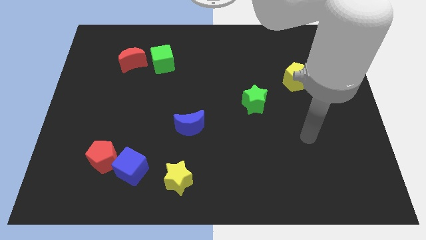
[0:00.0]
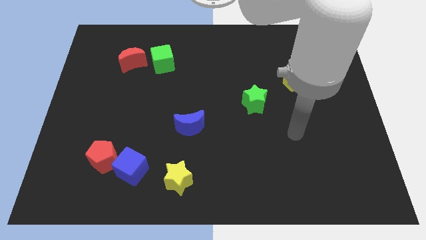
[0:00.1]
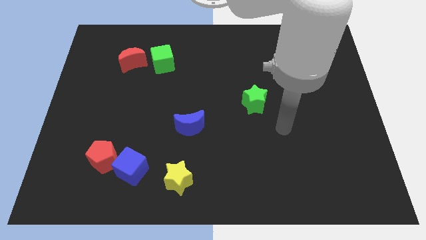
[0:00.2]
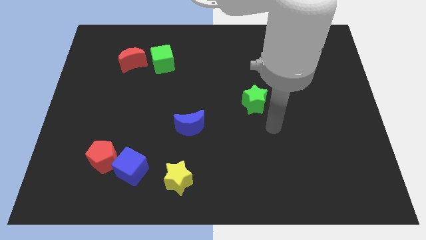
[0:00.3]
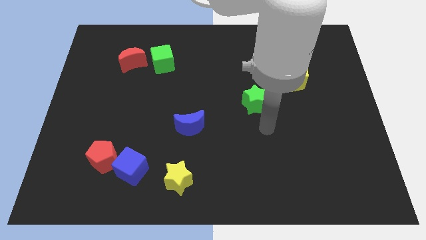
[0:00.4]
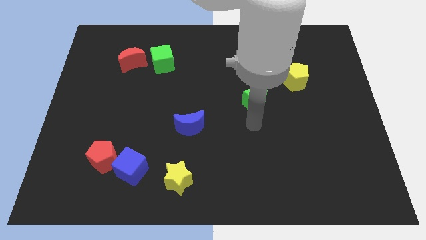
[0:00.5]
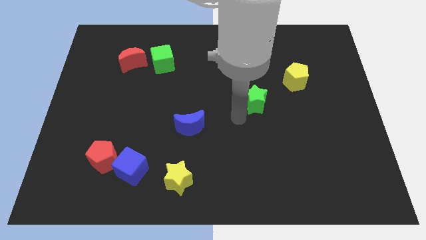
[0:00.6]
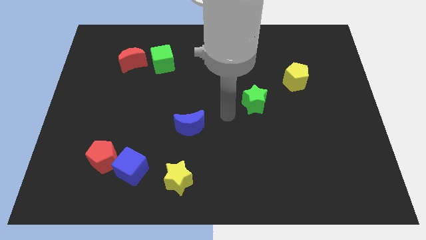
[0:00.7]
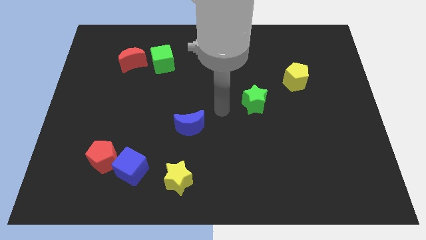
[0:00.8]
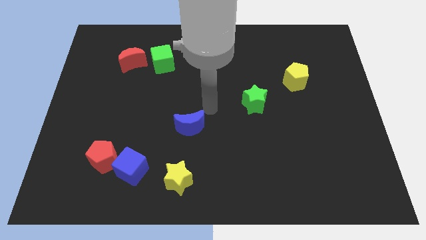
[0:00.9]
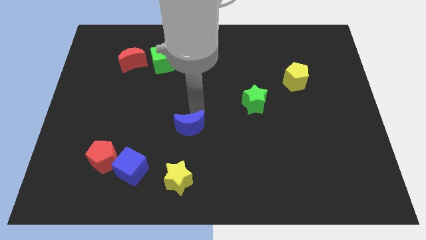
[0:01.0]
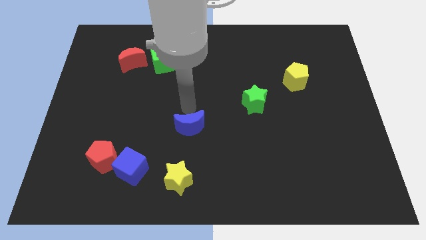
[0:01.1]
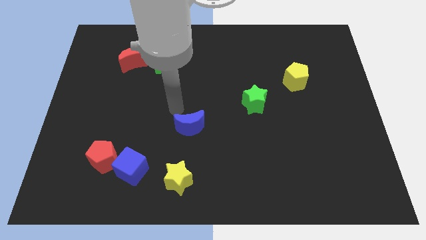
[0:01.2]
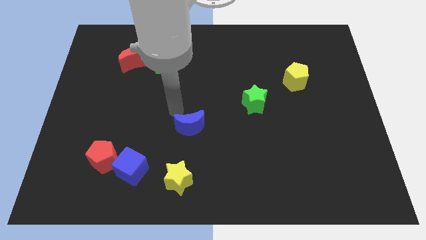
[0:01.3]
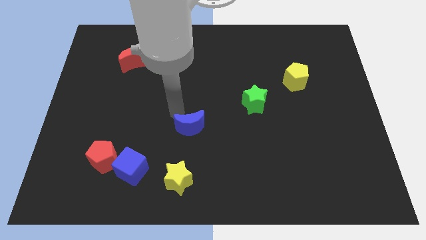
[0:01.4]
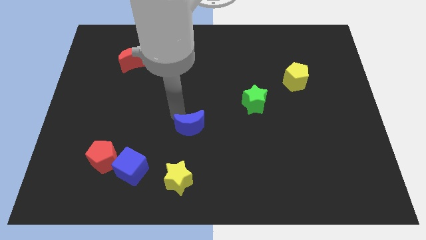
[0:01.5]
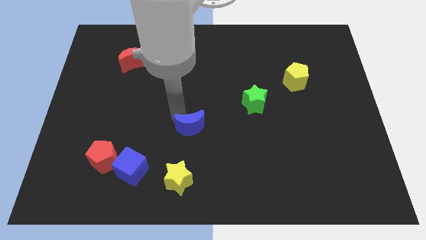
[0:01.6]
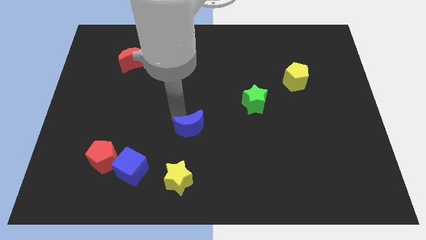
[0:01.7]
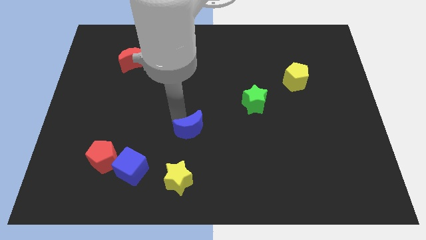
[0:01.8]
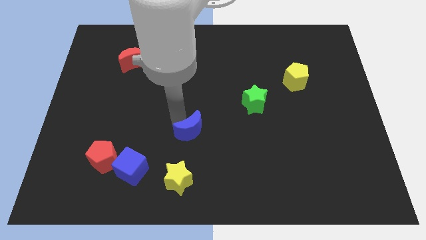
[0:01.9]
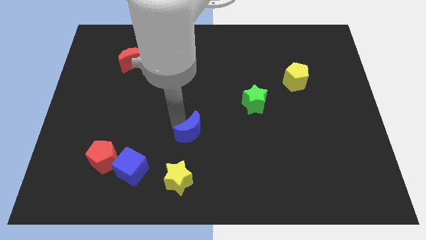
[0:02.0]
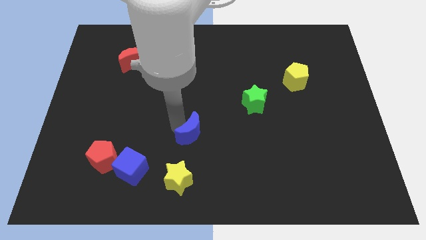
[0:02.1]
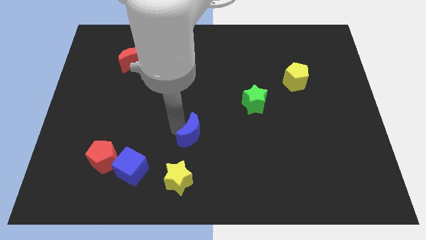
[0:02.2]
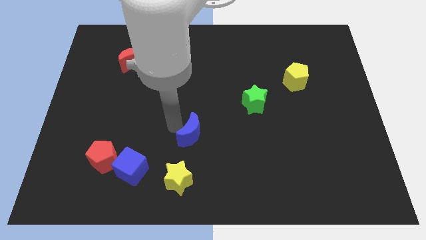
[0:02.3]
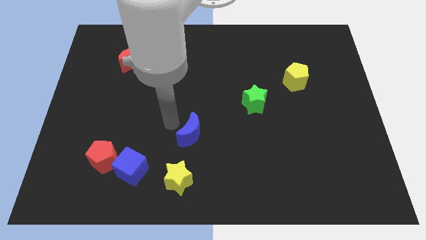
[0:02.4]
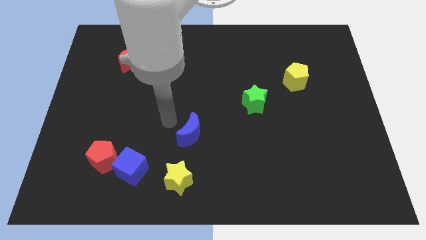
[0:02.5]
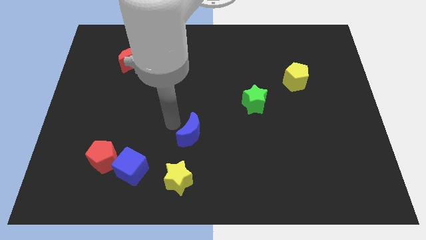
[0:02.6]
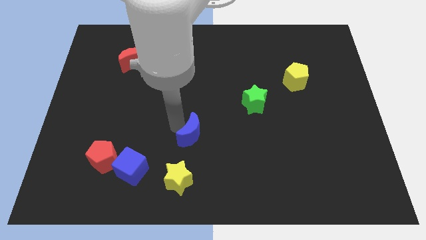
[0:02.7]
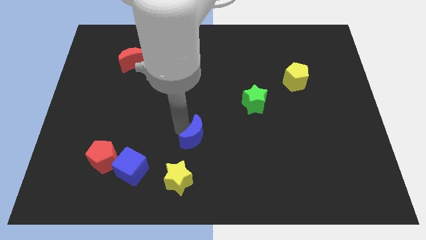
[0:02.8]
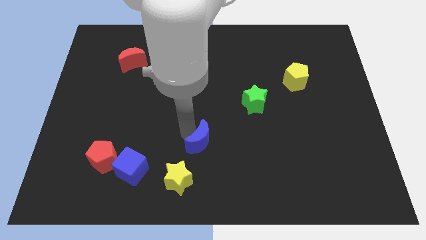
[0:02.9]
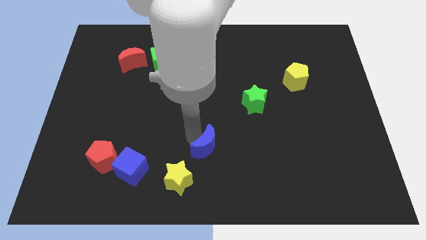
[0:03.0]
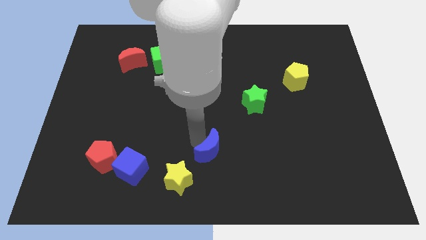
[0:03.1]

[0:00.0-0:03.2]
slightly move the blue moon down and right diagonally

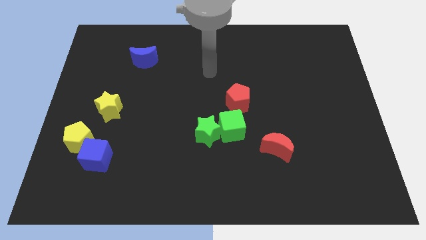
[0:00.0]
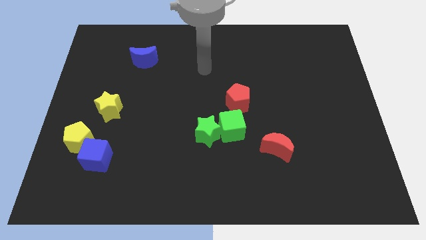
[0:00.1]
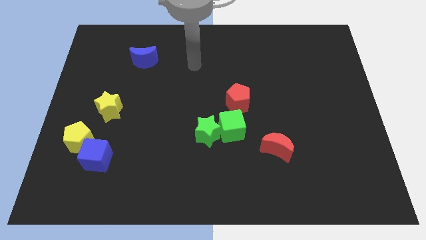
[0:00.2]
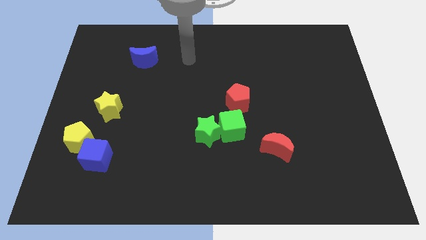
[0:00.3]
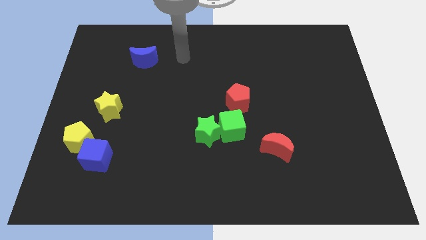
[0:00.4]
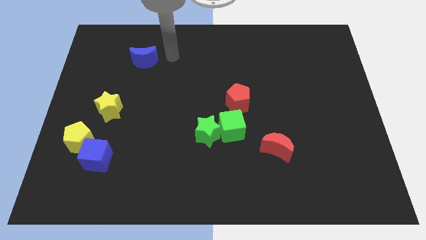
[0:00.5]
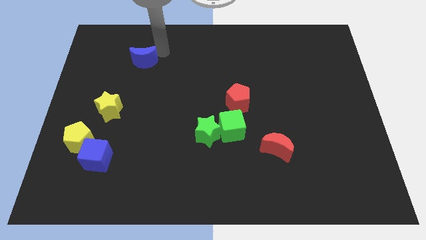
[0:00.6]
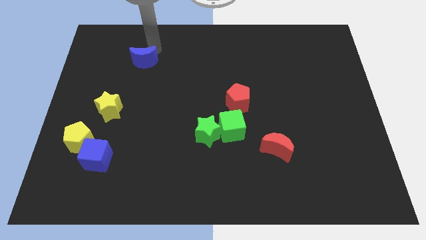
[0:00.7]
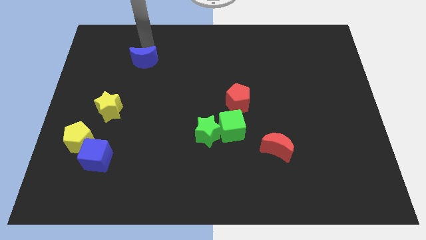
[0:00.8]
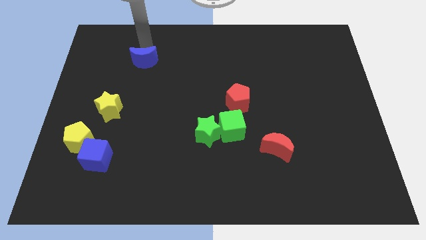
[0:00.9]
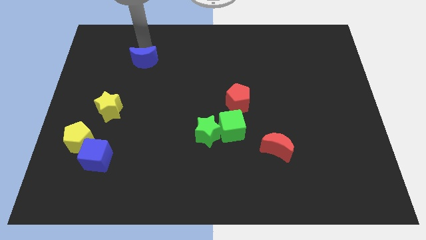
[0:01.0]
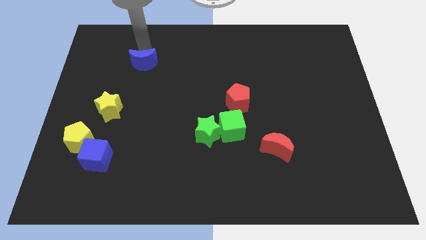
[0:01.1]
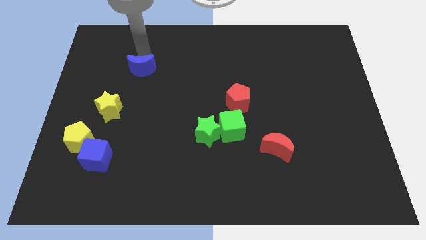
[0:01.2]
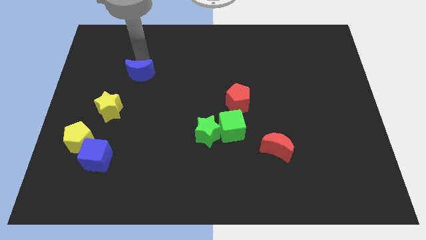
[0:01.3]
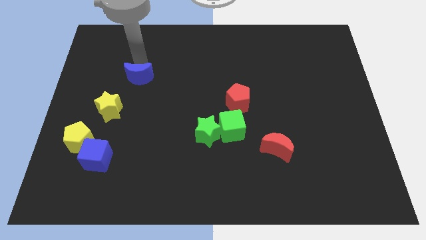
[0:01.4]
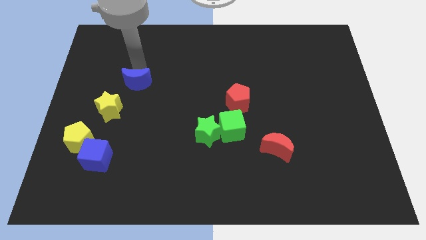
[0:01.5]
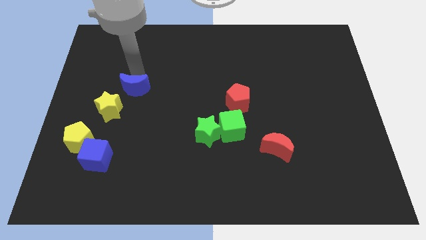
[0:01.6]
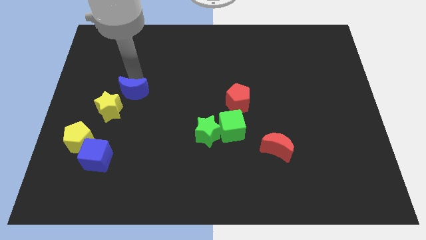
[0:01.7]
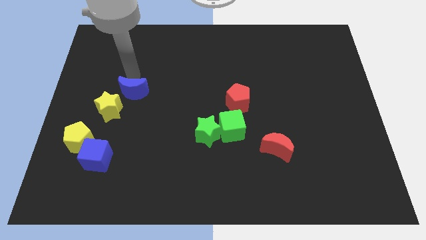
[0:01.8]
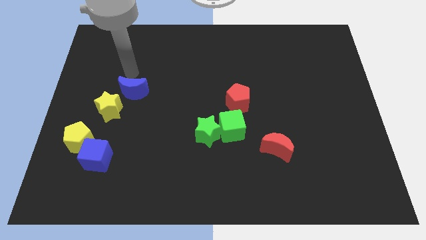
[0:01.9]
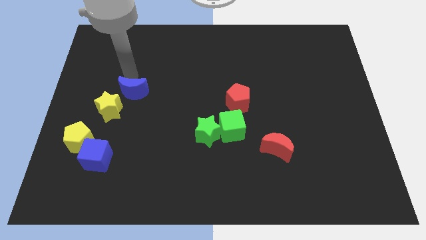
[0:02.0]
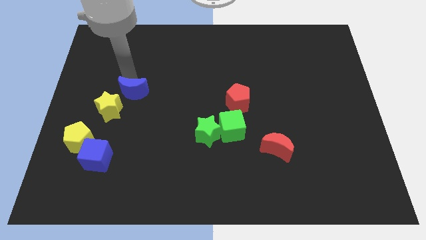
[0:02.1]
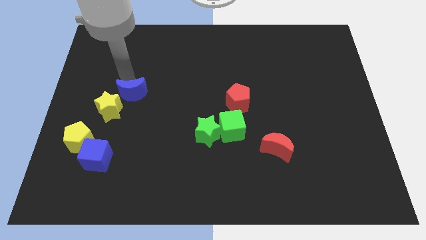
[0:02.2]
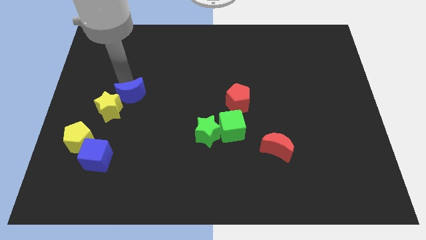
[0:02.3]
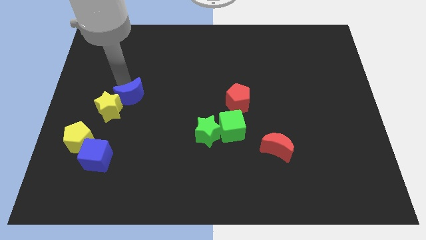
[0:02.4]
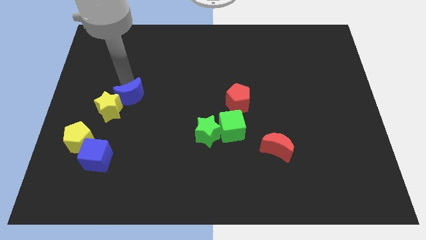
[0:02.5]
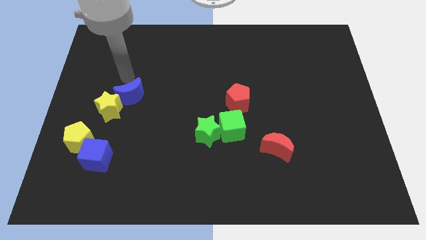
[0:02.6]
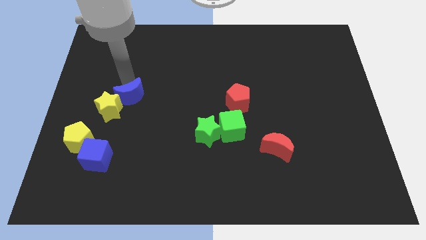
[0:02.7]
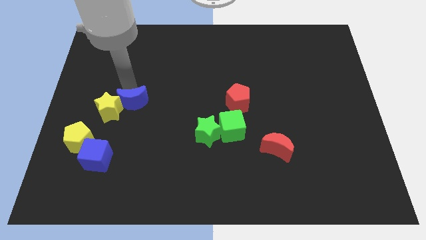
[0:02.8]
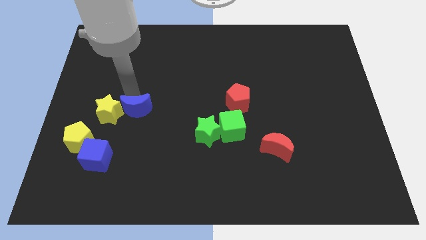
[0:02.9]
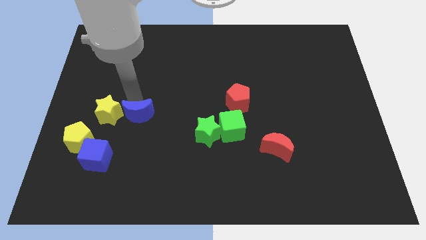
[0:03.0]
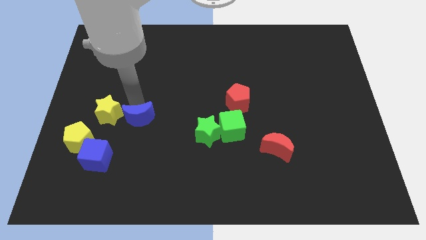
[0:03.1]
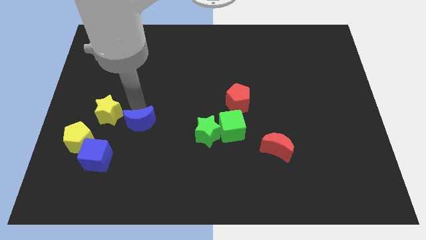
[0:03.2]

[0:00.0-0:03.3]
move the blue moon downwards

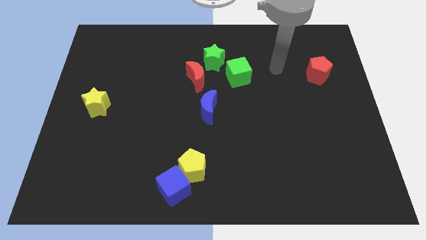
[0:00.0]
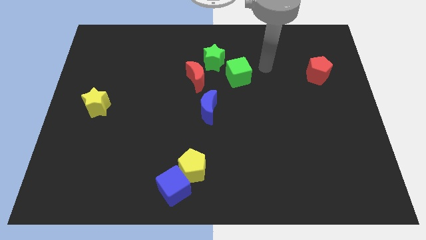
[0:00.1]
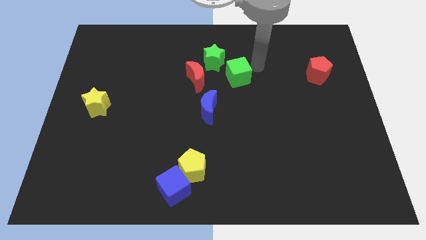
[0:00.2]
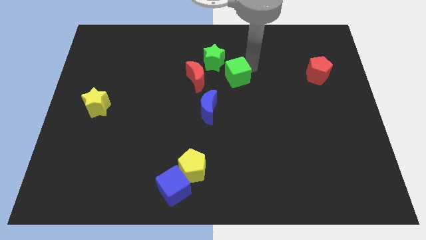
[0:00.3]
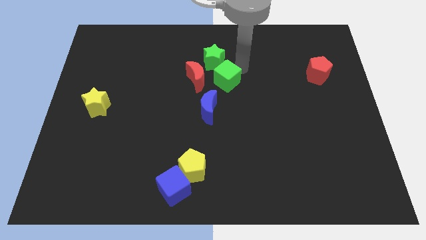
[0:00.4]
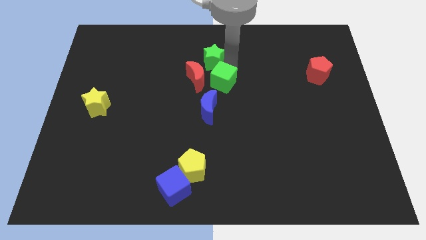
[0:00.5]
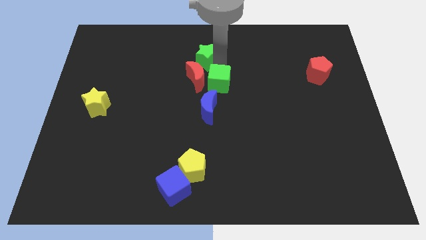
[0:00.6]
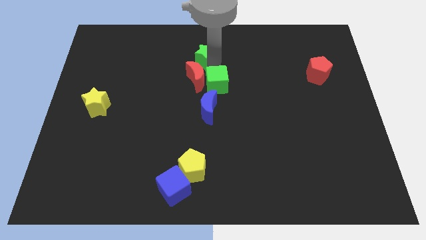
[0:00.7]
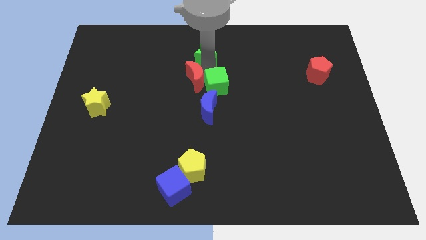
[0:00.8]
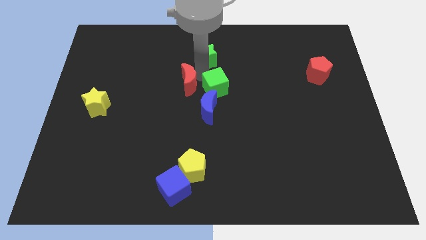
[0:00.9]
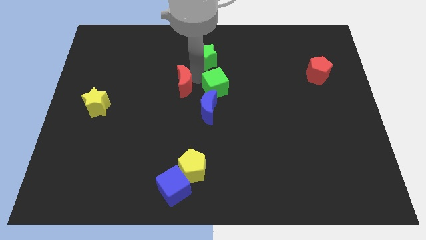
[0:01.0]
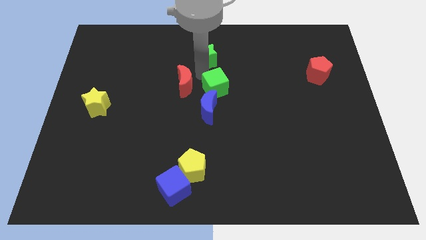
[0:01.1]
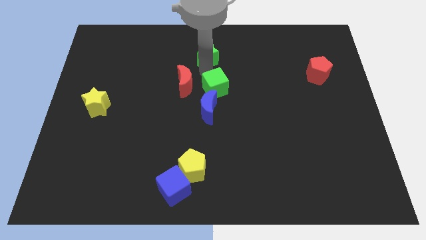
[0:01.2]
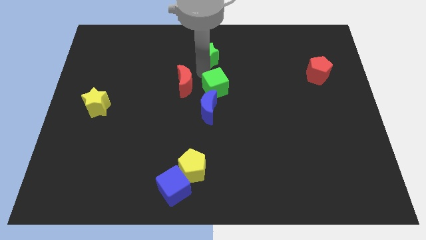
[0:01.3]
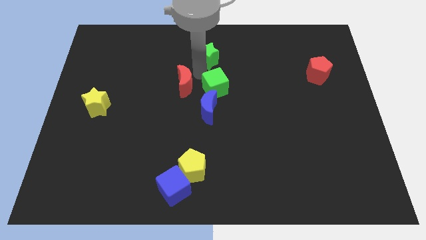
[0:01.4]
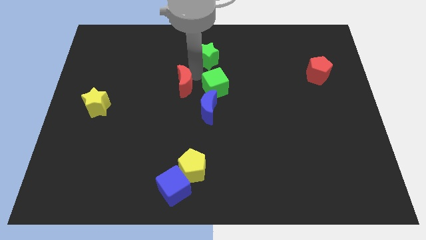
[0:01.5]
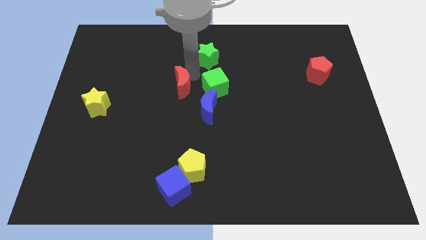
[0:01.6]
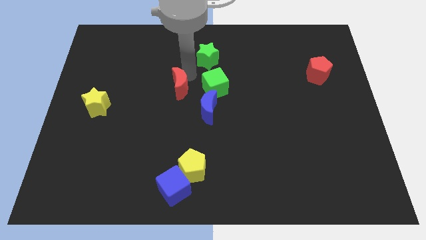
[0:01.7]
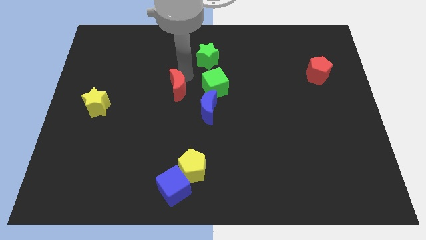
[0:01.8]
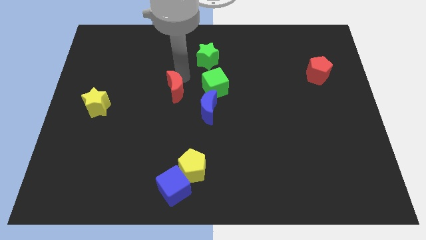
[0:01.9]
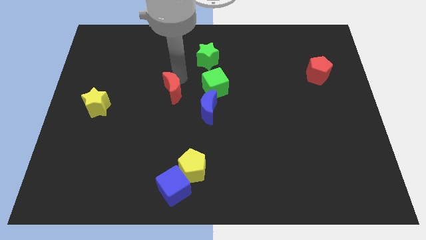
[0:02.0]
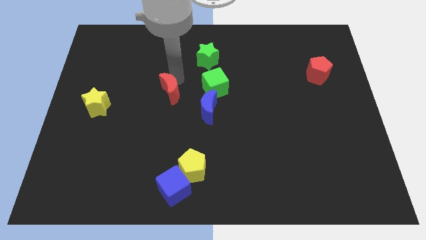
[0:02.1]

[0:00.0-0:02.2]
push the red moon down and to the left diagonally somewhat
